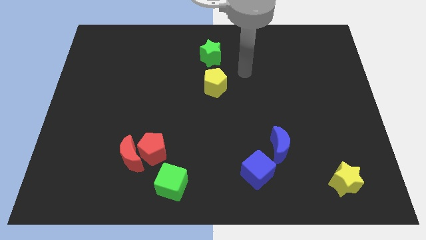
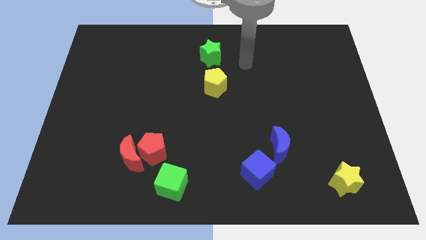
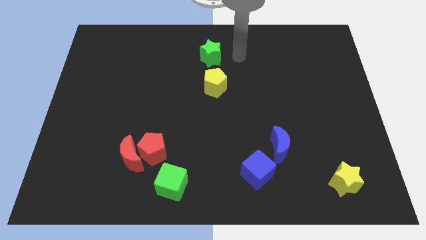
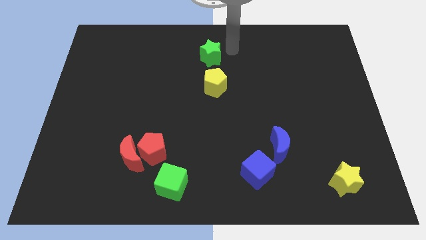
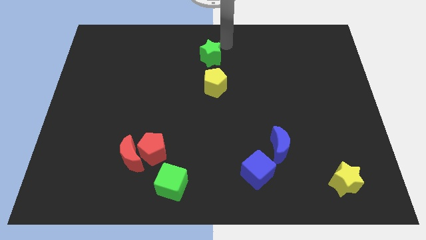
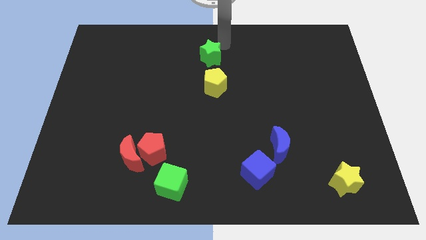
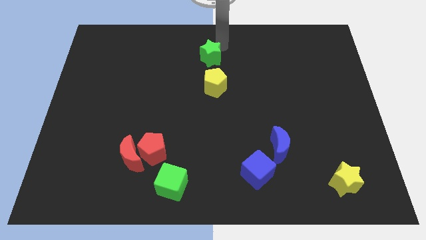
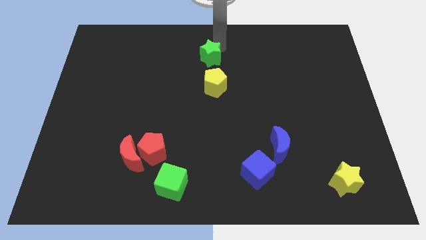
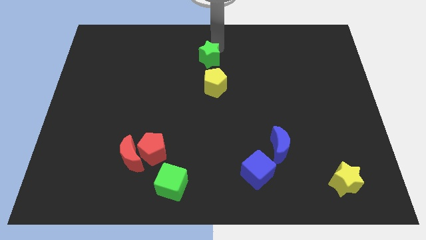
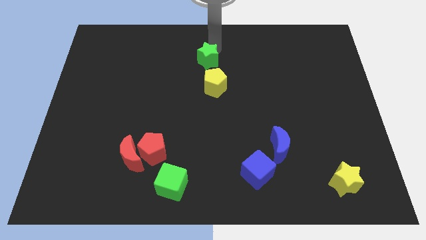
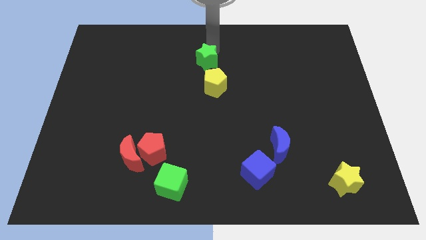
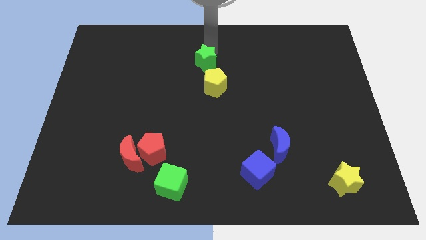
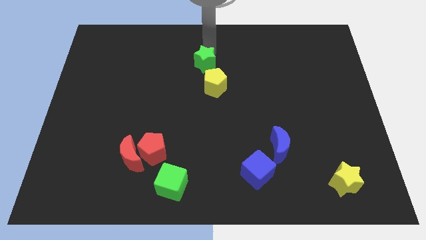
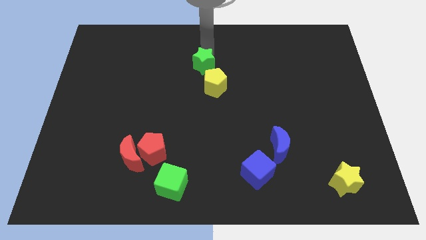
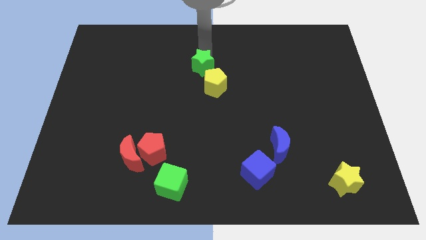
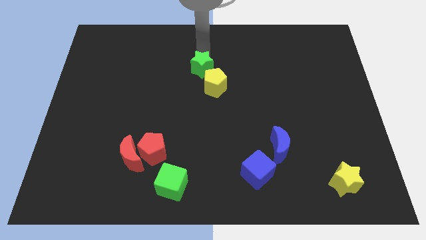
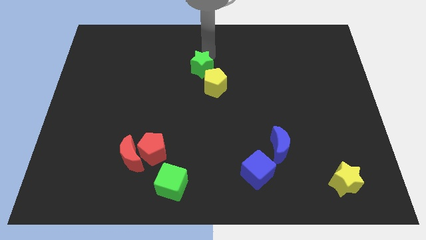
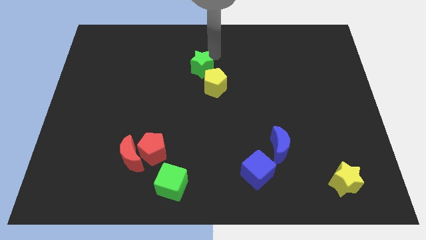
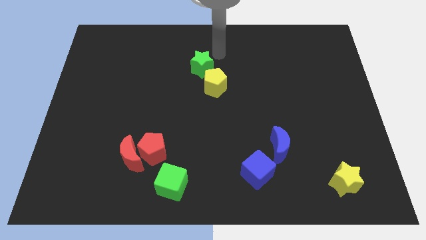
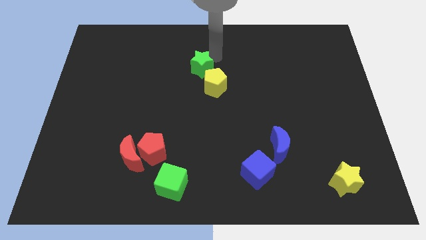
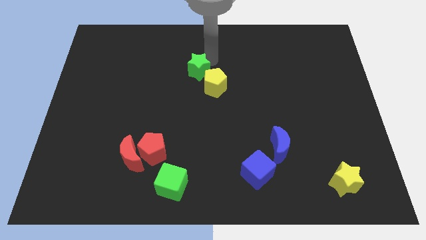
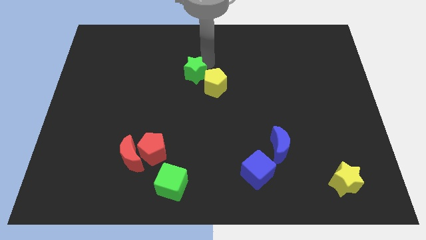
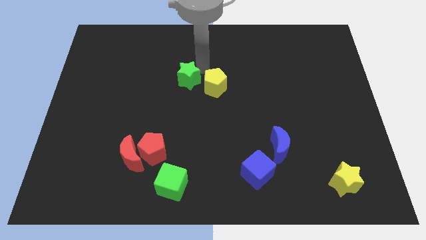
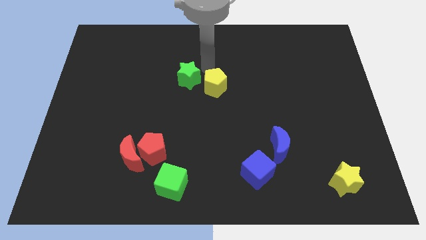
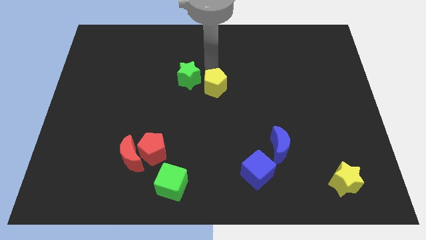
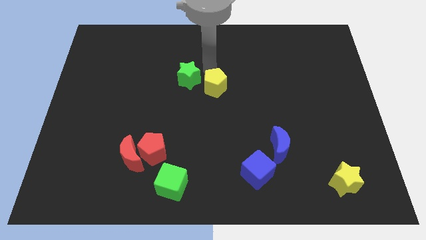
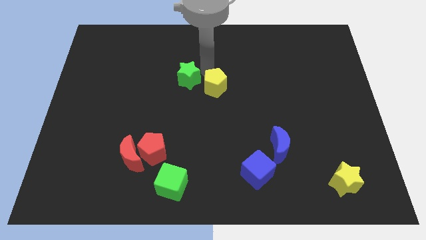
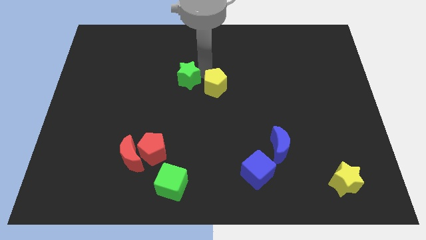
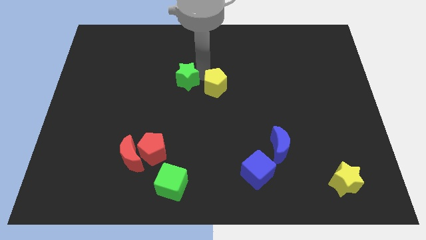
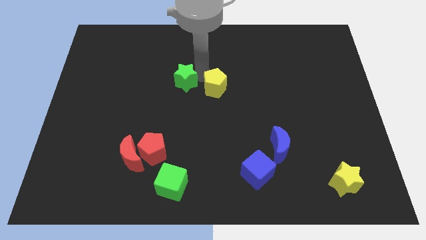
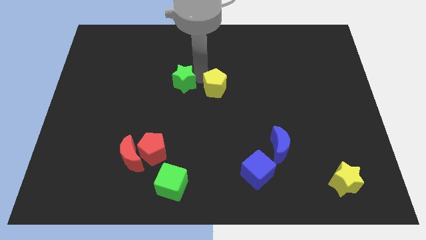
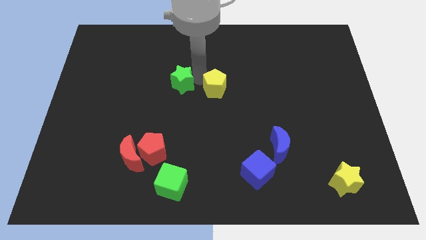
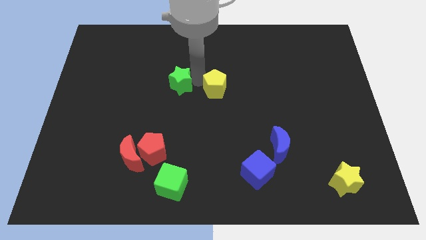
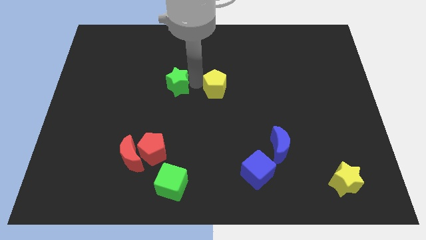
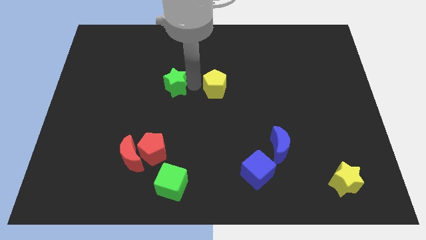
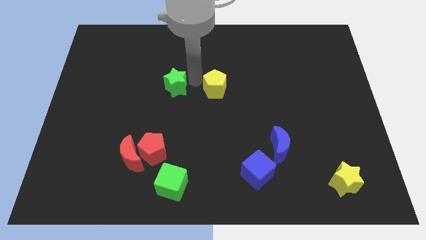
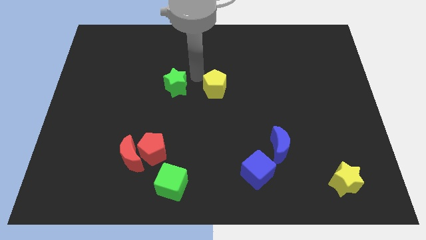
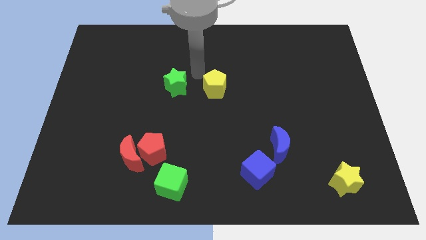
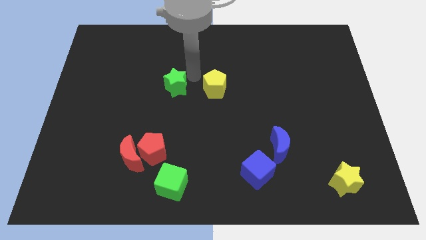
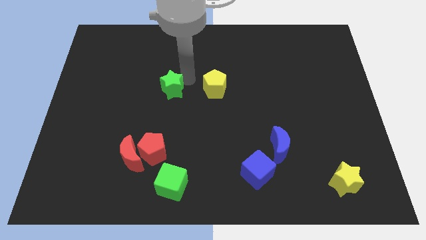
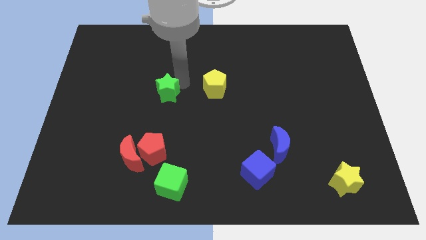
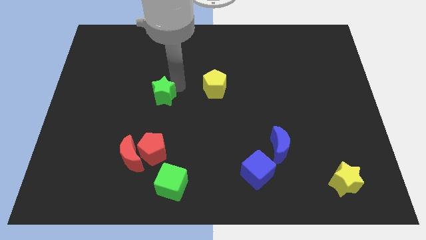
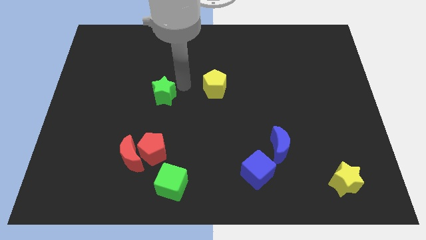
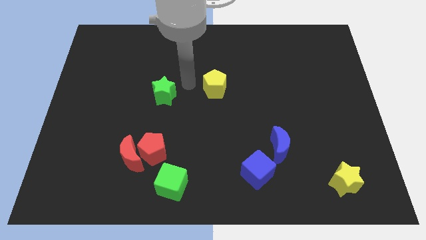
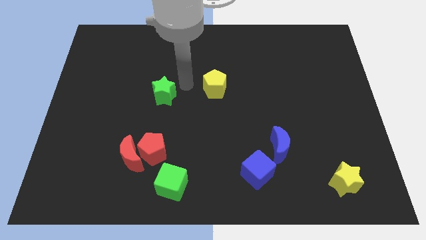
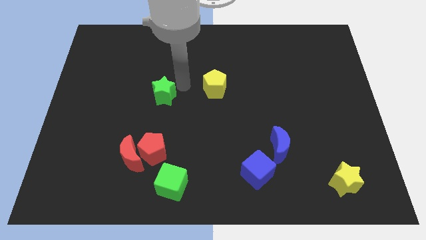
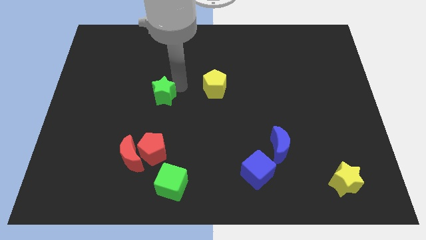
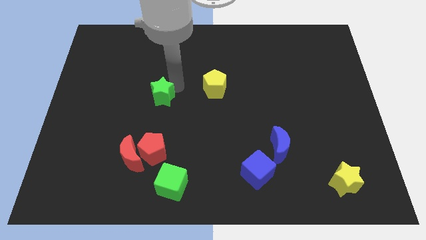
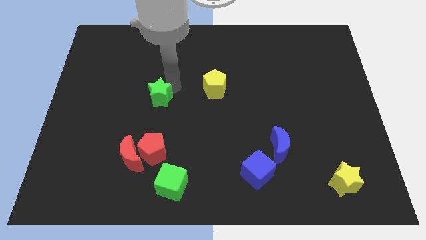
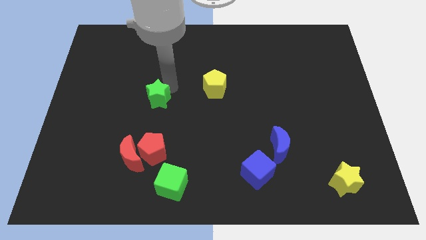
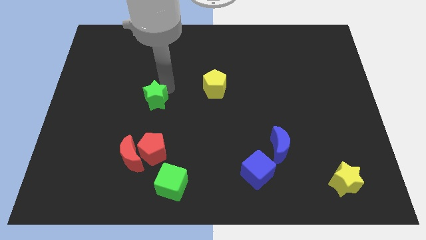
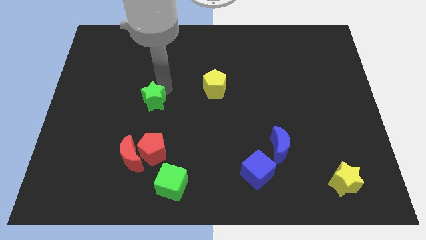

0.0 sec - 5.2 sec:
move the green star down and then to the left

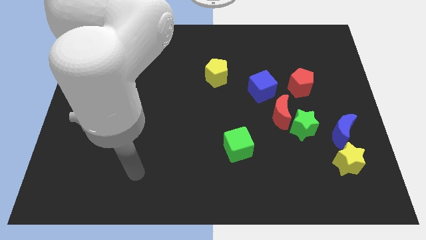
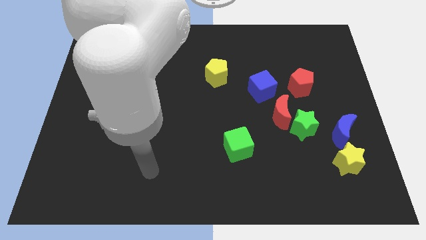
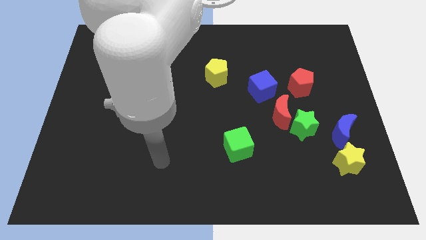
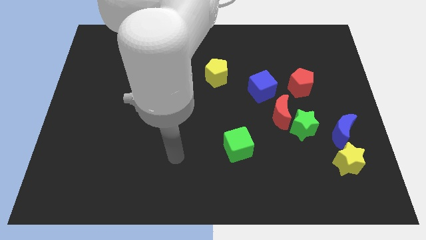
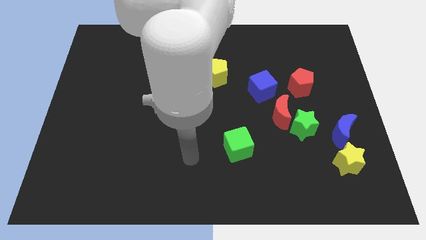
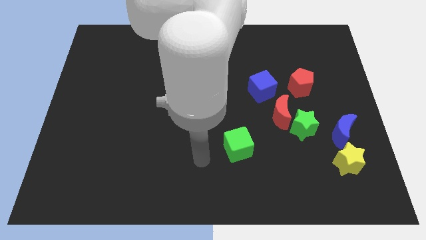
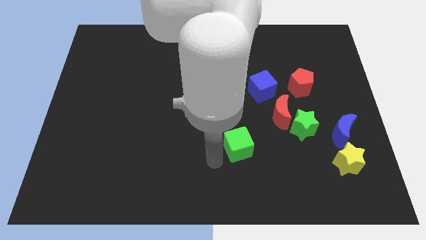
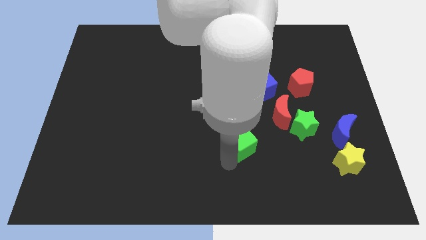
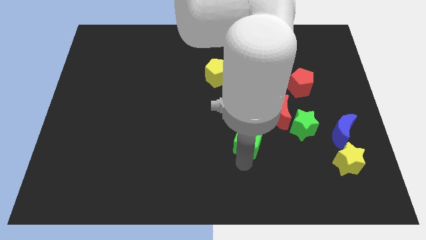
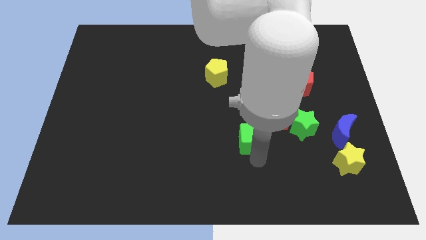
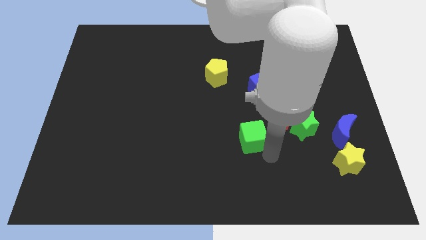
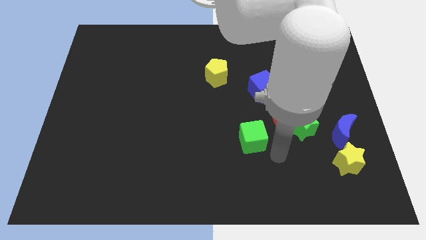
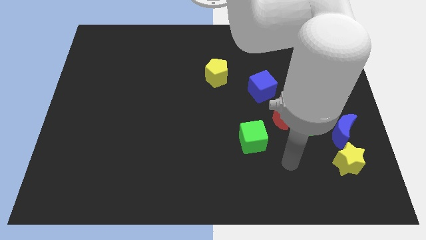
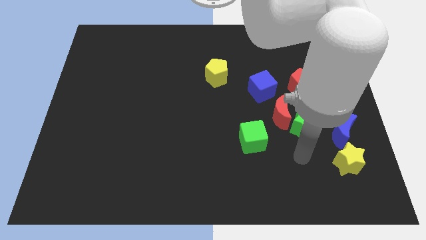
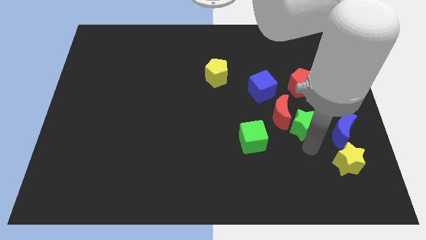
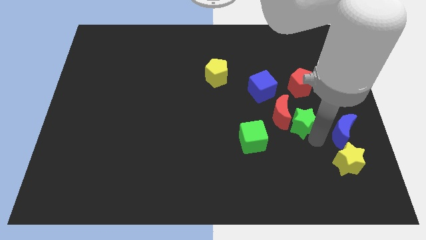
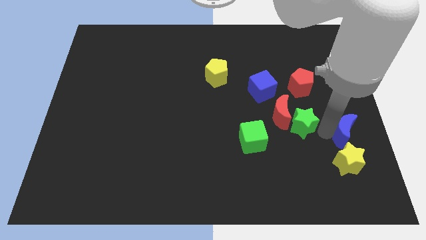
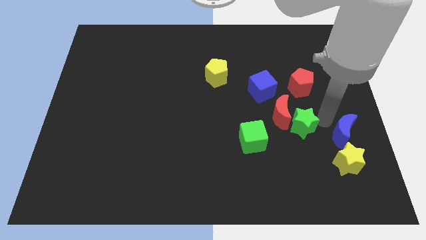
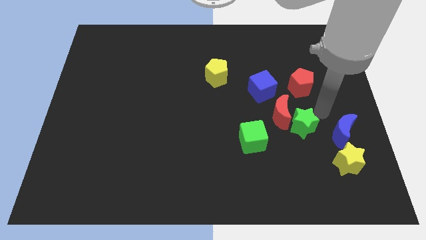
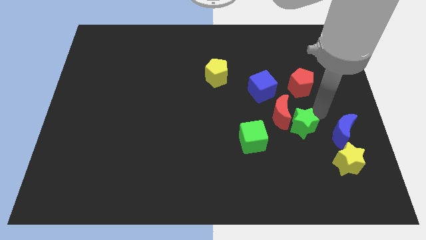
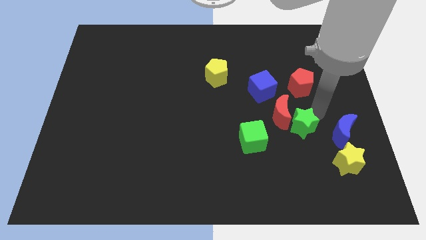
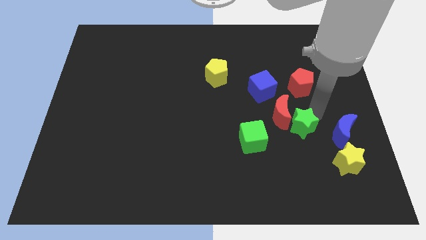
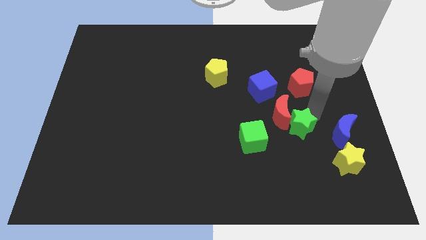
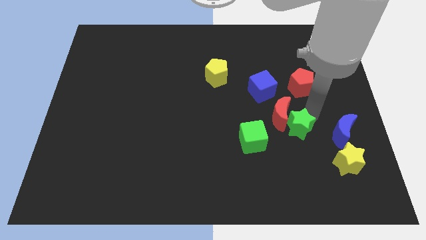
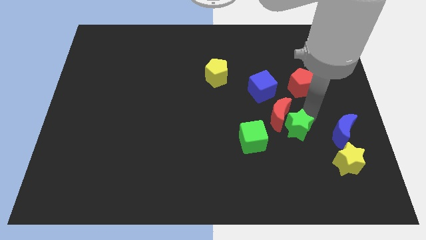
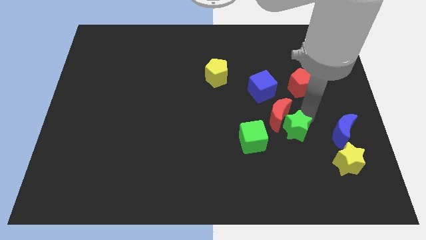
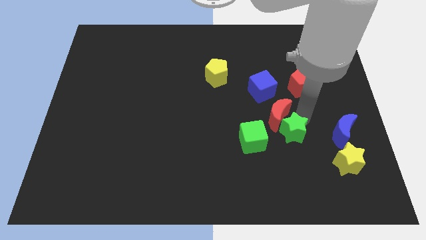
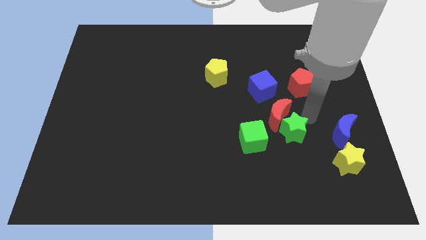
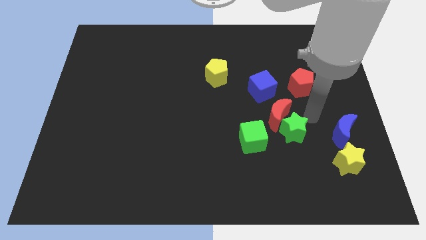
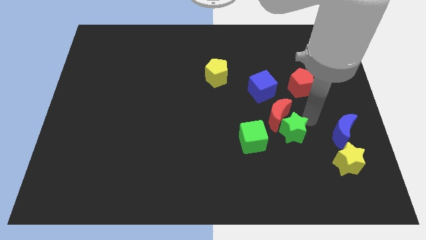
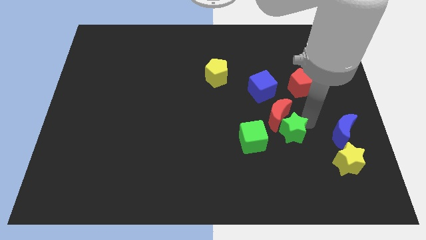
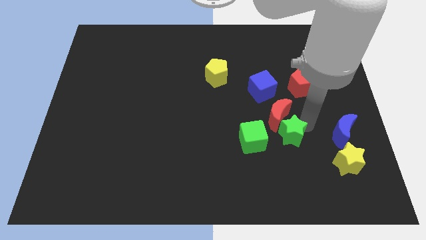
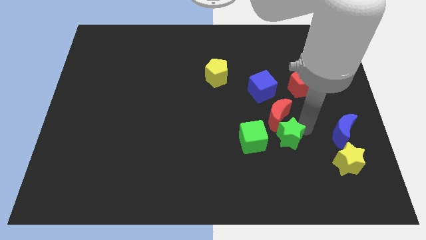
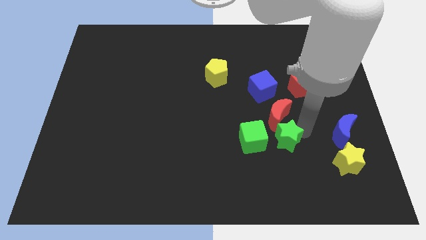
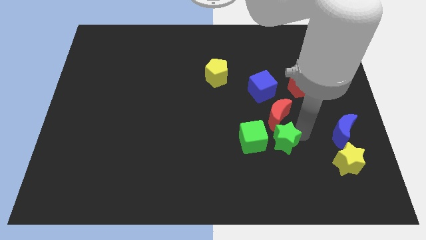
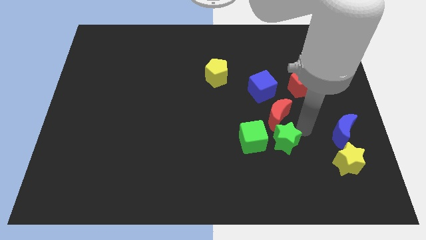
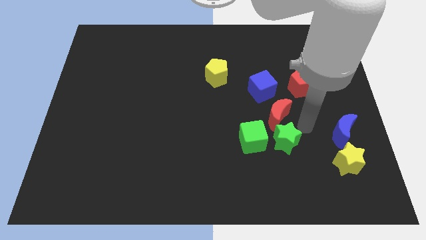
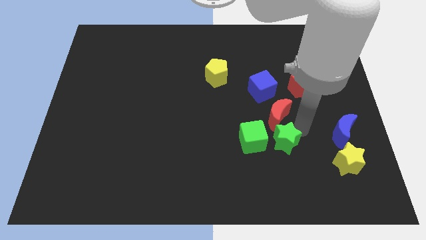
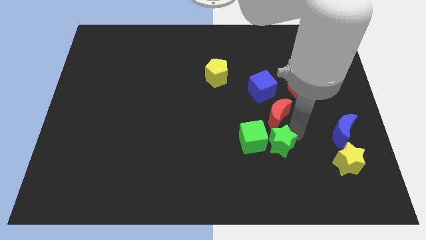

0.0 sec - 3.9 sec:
slide the green star a little bit down and then to the left
